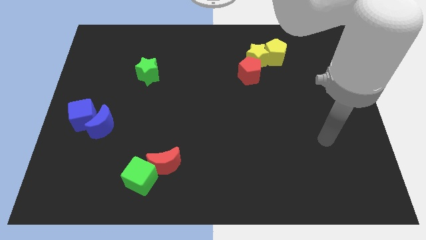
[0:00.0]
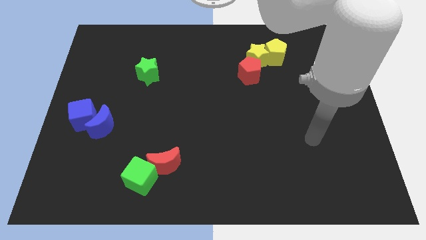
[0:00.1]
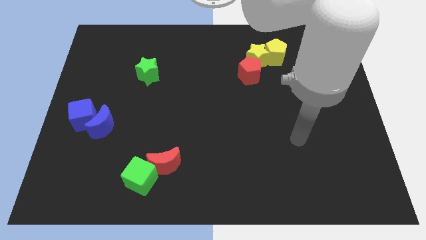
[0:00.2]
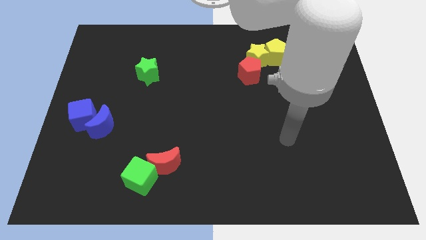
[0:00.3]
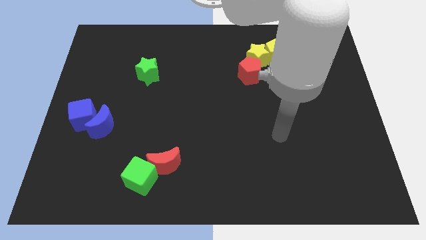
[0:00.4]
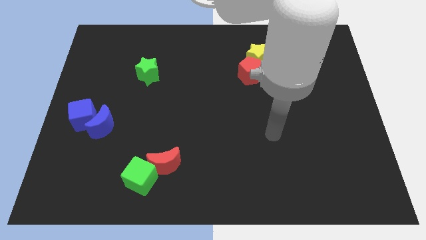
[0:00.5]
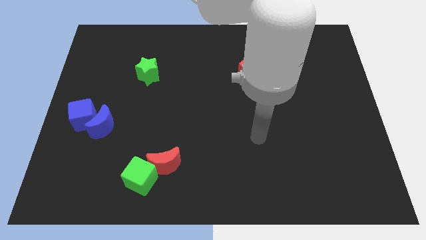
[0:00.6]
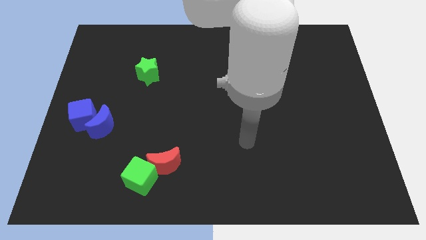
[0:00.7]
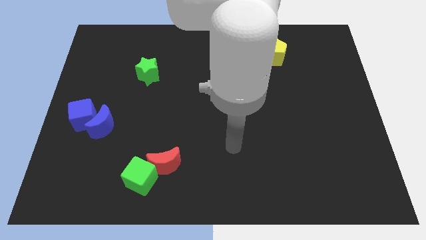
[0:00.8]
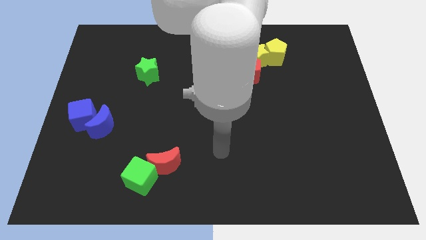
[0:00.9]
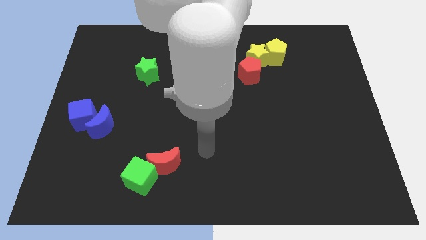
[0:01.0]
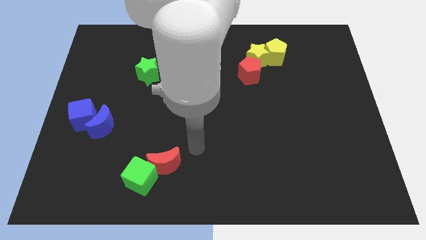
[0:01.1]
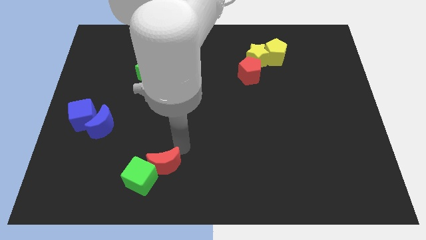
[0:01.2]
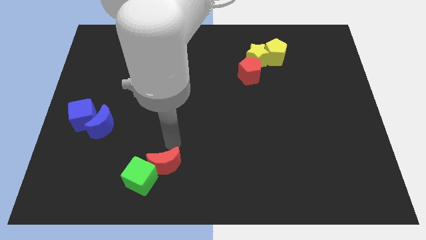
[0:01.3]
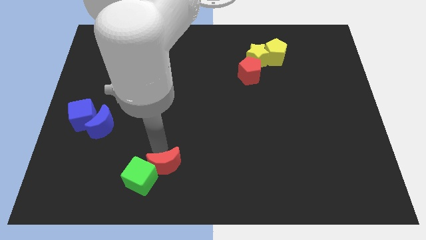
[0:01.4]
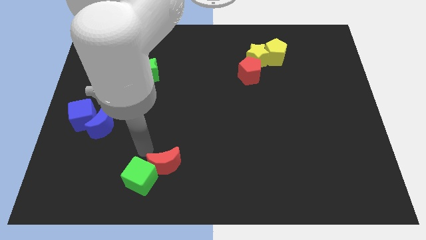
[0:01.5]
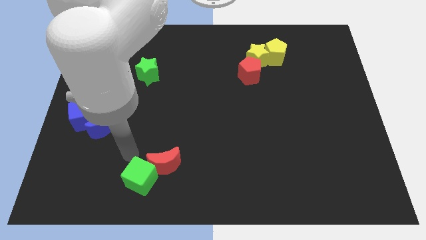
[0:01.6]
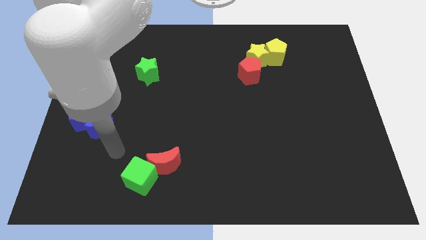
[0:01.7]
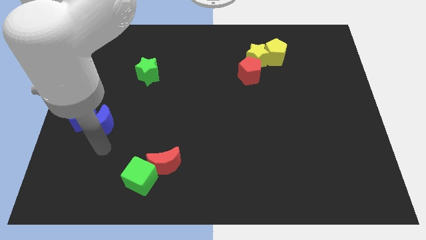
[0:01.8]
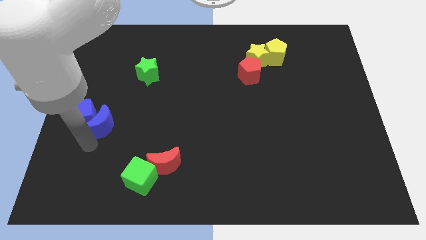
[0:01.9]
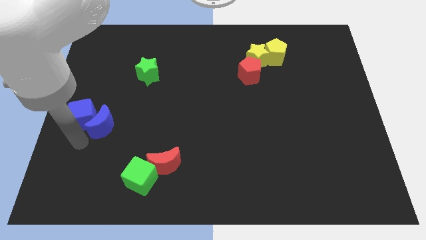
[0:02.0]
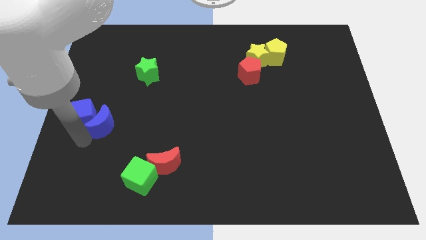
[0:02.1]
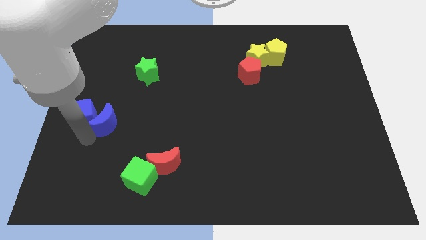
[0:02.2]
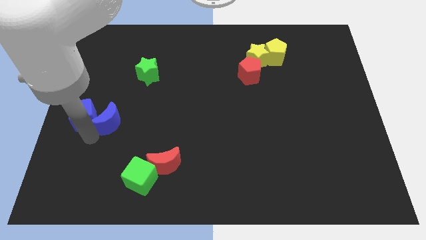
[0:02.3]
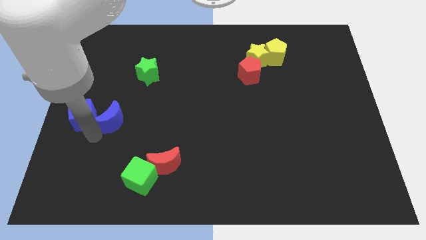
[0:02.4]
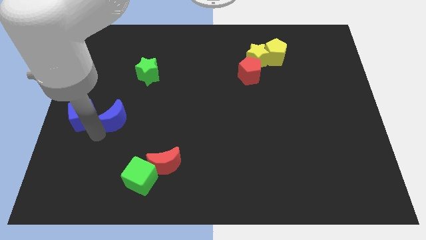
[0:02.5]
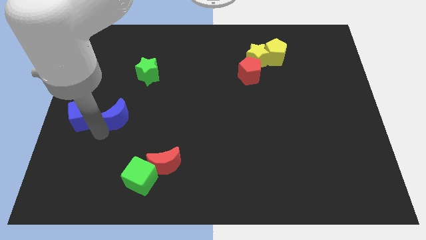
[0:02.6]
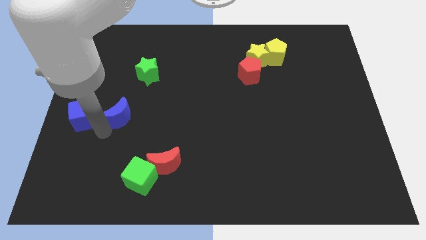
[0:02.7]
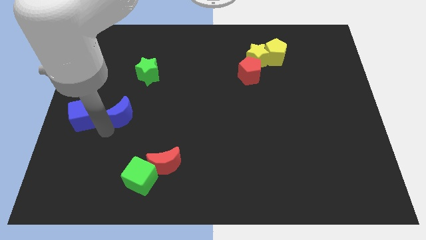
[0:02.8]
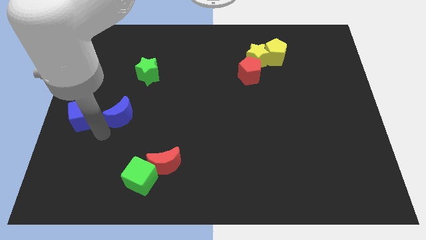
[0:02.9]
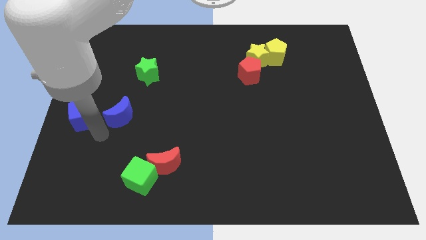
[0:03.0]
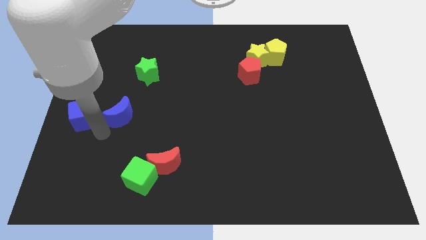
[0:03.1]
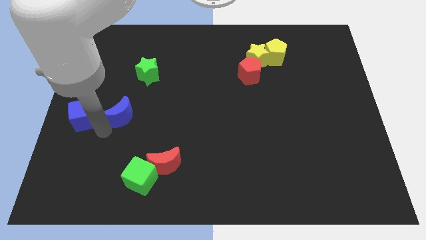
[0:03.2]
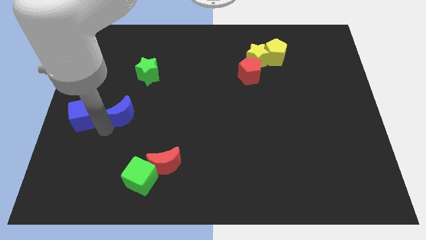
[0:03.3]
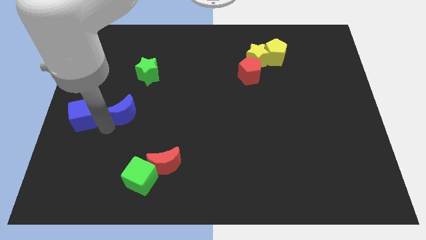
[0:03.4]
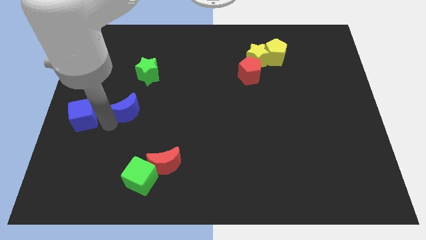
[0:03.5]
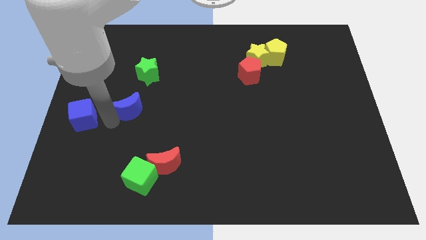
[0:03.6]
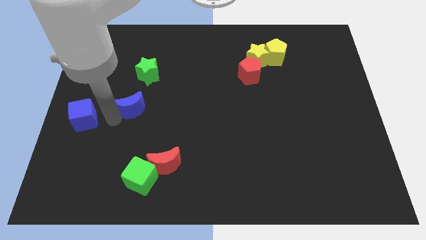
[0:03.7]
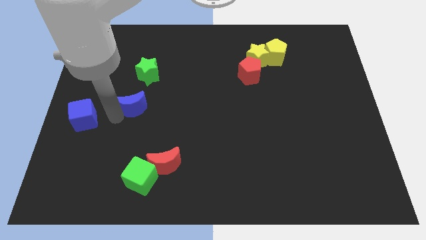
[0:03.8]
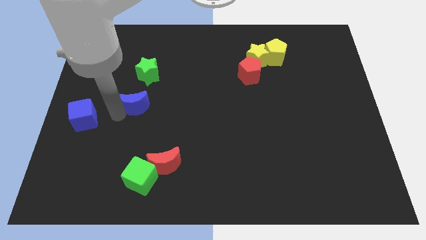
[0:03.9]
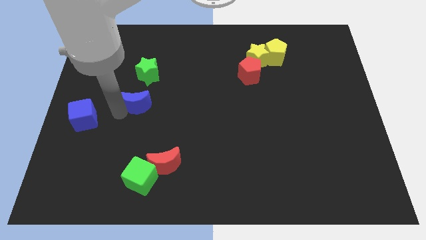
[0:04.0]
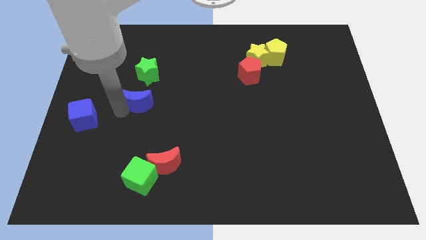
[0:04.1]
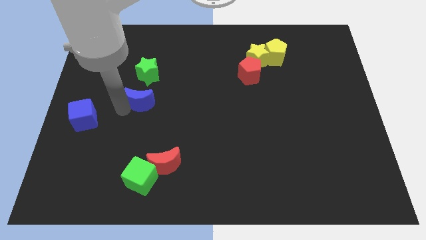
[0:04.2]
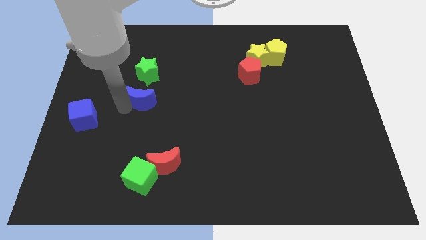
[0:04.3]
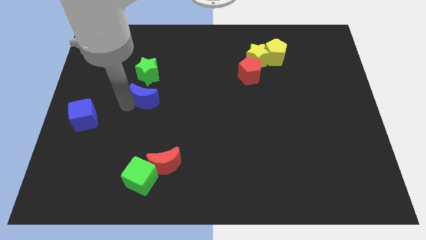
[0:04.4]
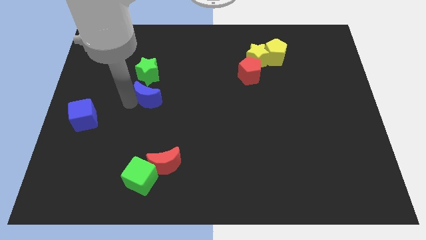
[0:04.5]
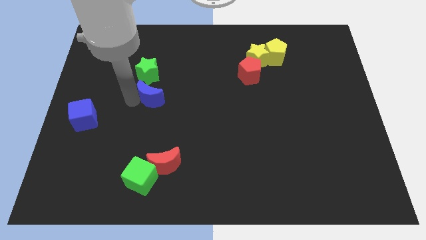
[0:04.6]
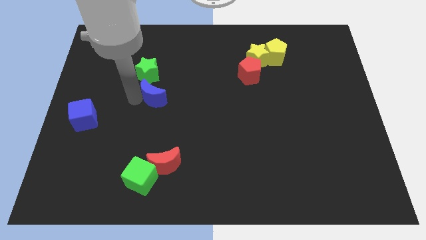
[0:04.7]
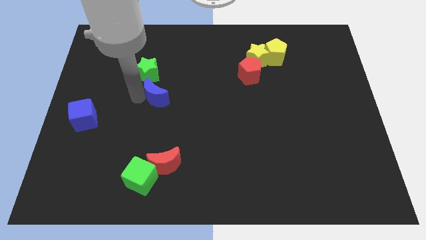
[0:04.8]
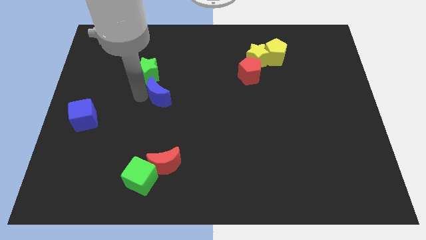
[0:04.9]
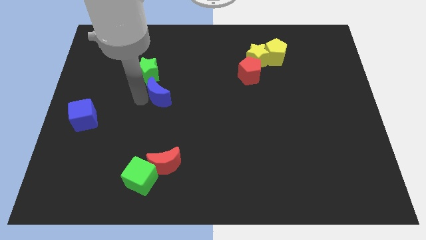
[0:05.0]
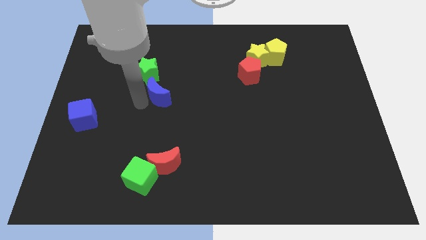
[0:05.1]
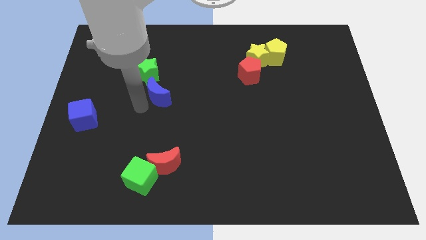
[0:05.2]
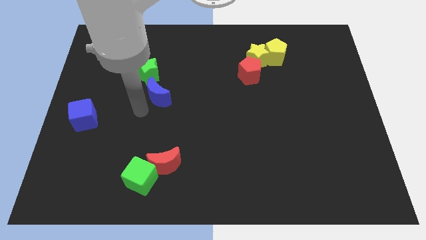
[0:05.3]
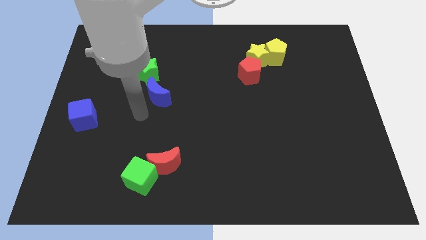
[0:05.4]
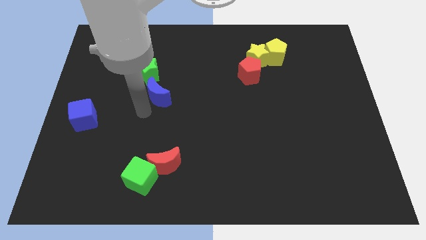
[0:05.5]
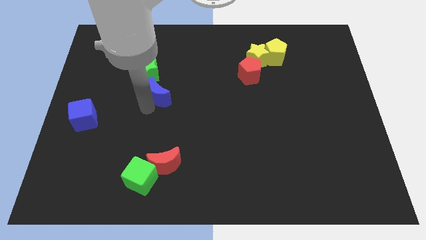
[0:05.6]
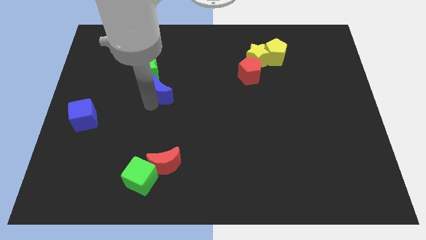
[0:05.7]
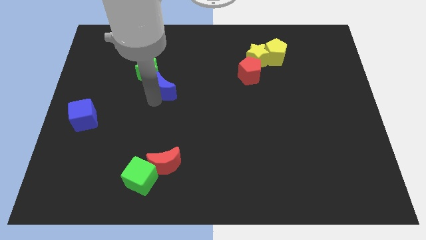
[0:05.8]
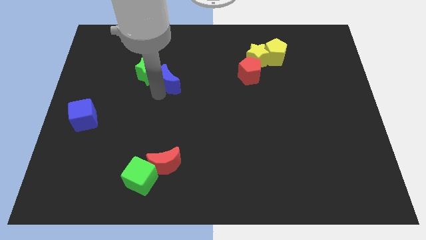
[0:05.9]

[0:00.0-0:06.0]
put the blue moon just right of the green star
